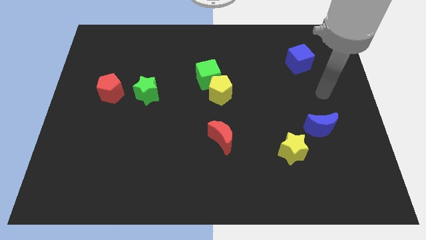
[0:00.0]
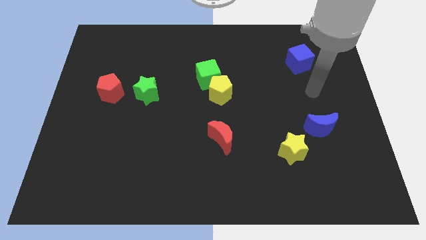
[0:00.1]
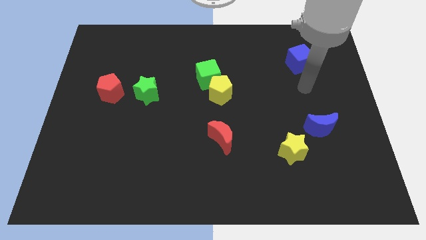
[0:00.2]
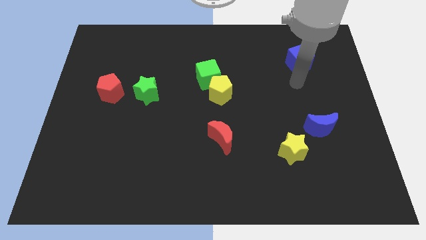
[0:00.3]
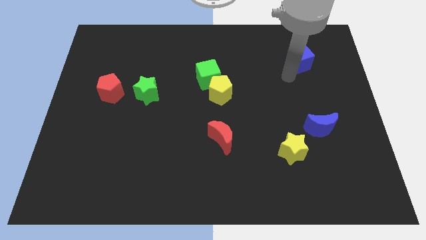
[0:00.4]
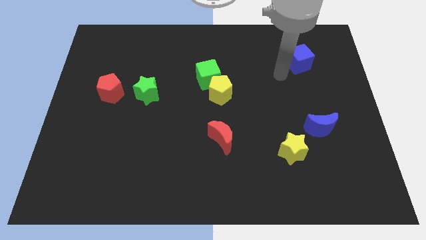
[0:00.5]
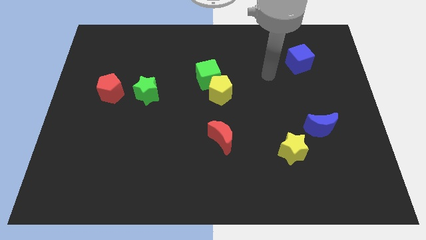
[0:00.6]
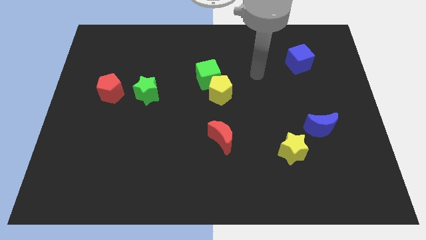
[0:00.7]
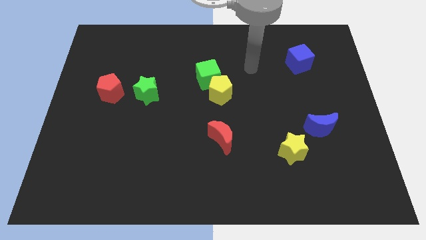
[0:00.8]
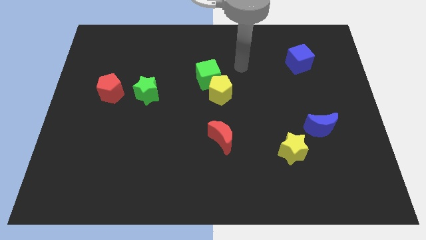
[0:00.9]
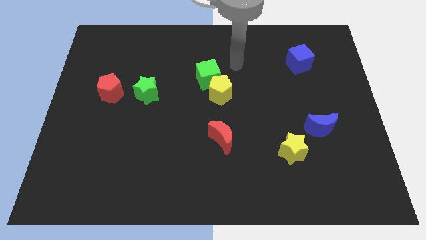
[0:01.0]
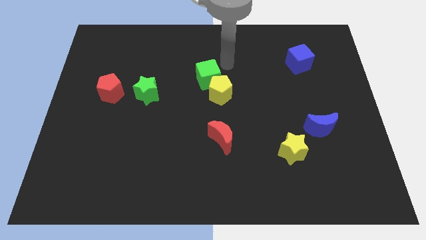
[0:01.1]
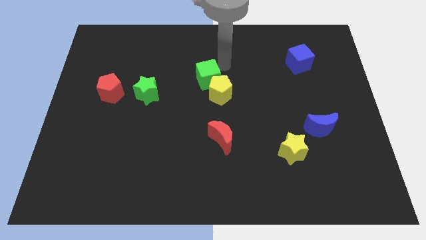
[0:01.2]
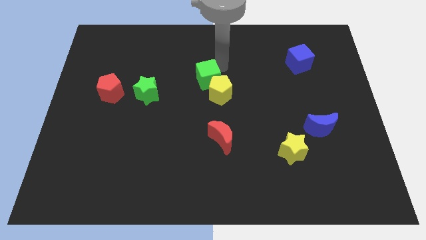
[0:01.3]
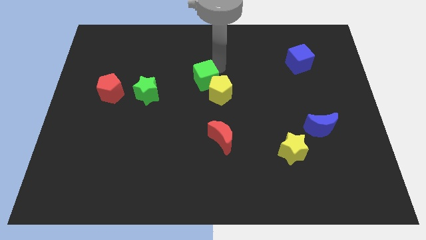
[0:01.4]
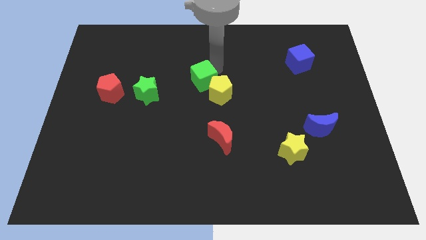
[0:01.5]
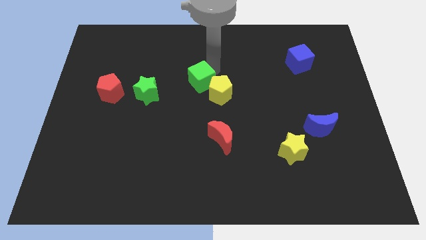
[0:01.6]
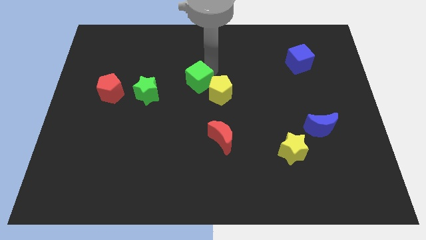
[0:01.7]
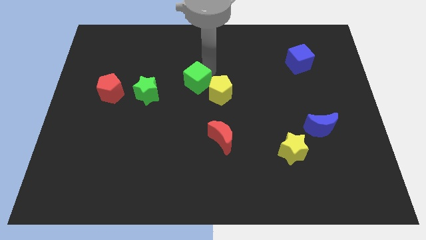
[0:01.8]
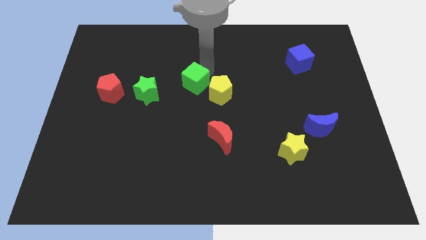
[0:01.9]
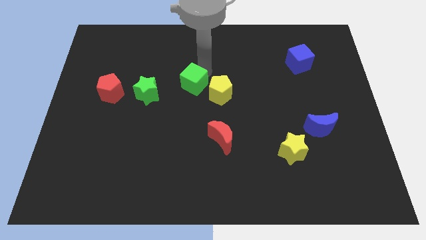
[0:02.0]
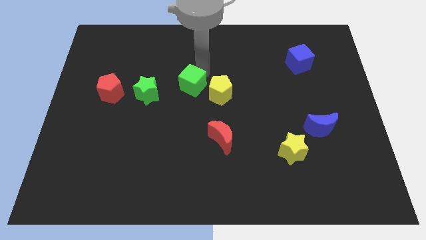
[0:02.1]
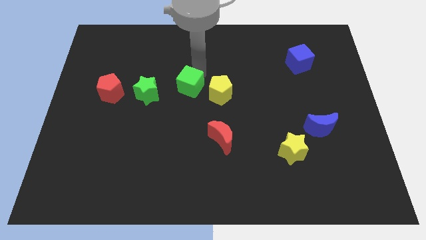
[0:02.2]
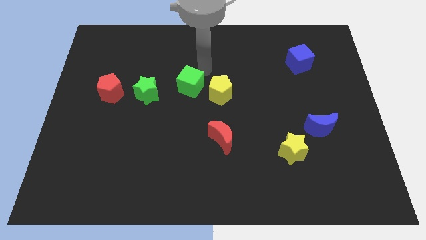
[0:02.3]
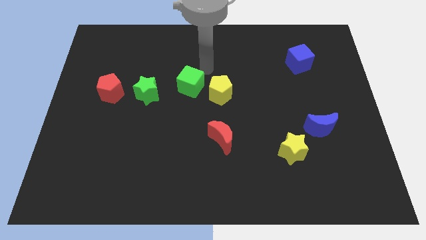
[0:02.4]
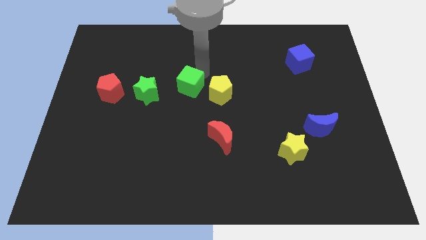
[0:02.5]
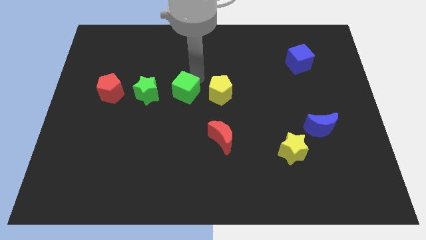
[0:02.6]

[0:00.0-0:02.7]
slightly push the green cube down and to the left diagonally

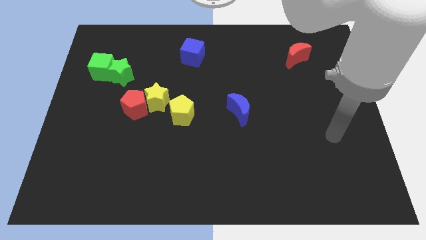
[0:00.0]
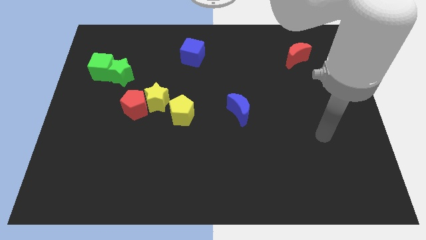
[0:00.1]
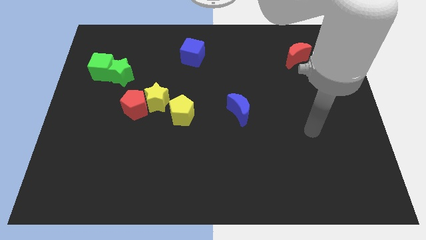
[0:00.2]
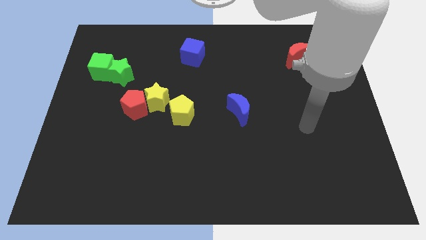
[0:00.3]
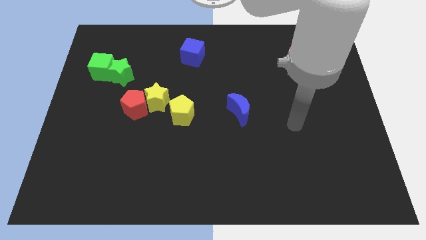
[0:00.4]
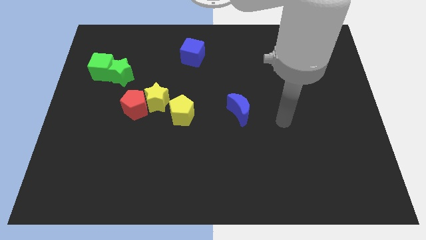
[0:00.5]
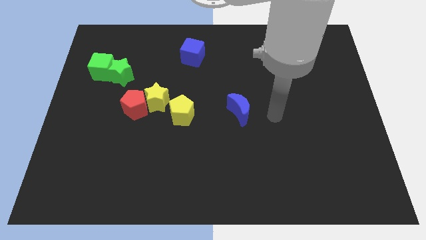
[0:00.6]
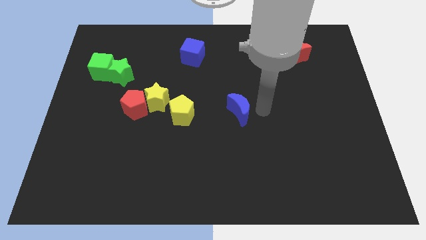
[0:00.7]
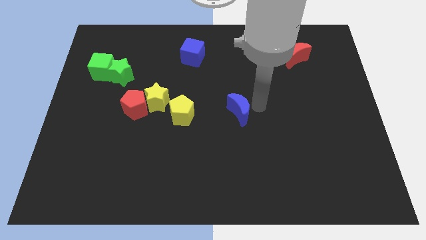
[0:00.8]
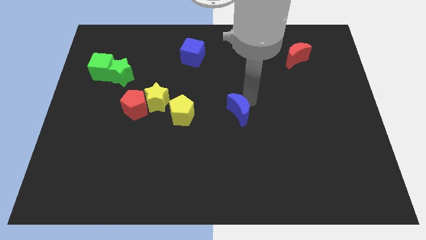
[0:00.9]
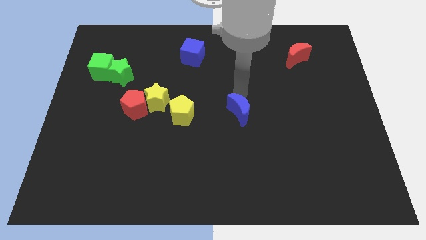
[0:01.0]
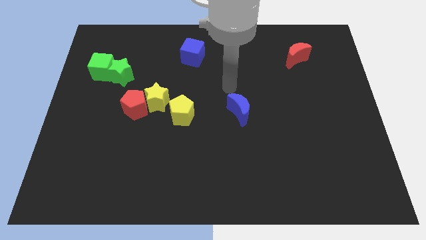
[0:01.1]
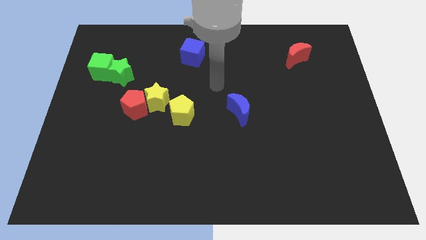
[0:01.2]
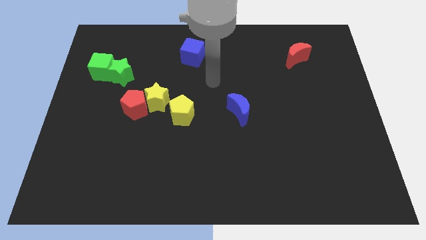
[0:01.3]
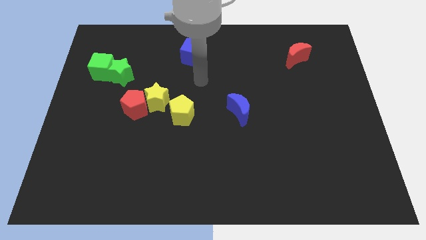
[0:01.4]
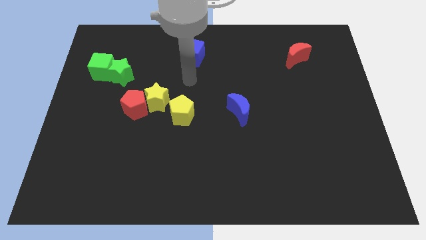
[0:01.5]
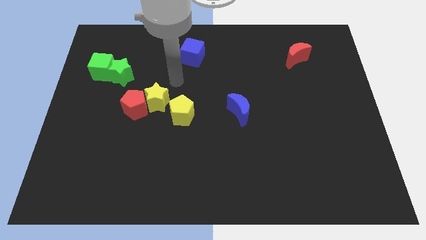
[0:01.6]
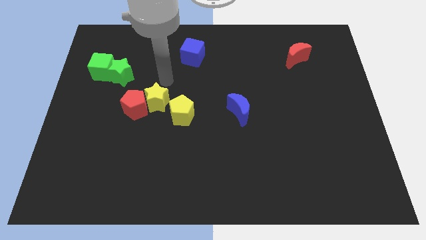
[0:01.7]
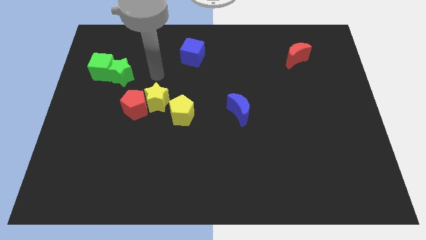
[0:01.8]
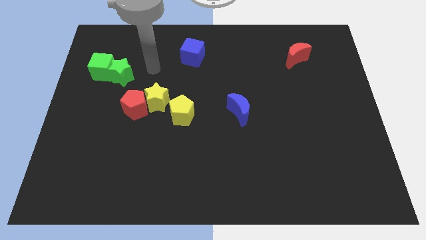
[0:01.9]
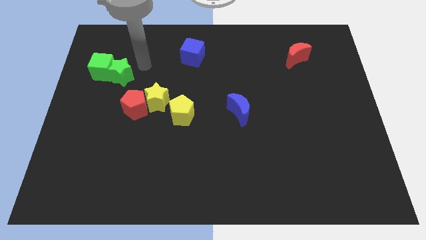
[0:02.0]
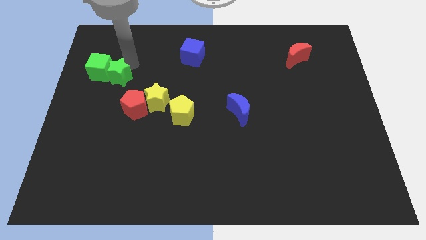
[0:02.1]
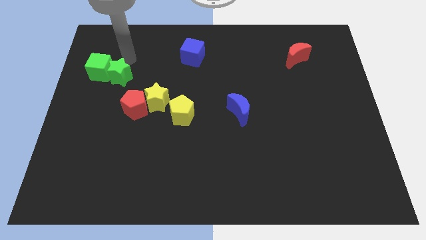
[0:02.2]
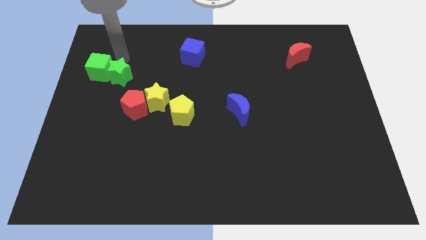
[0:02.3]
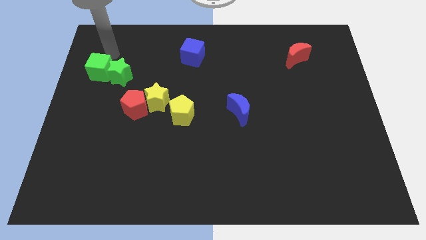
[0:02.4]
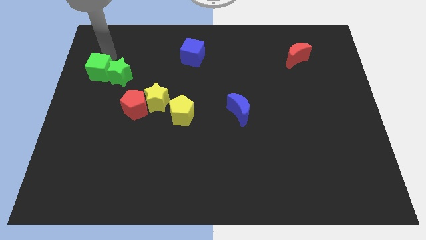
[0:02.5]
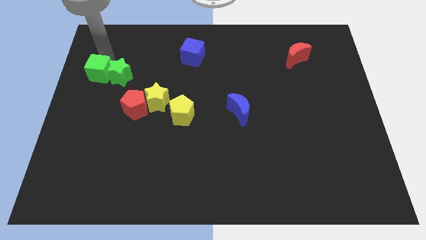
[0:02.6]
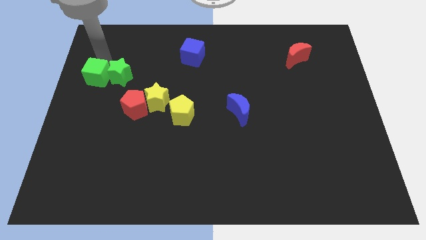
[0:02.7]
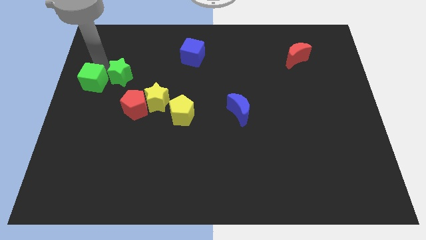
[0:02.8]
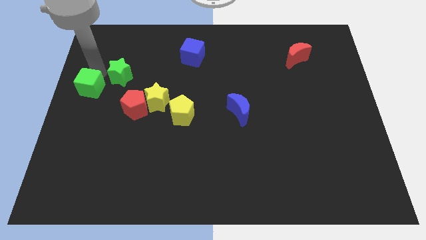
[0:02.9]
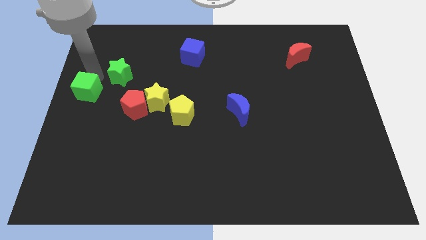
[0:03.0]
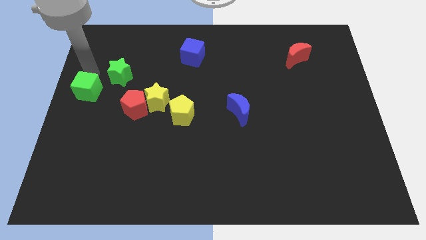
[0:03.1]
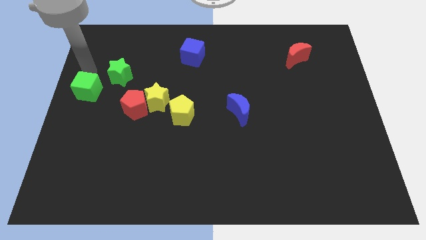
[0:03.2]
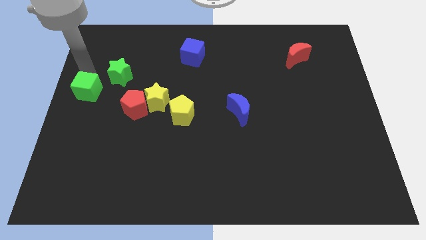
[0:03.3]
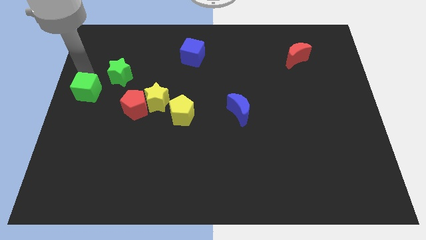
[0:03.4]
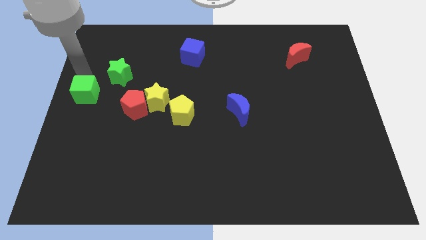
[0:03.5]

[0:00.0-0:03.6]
push the green cube a little bit down

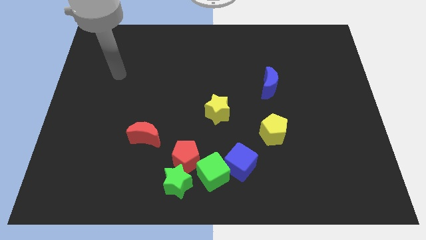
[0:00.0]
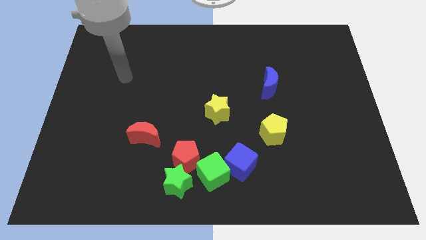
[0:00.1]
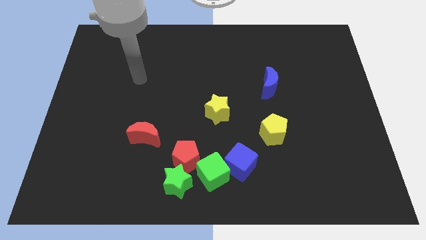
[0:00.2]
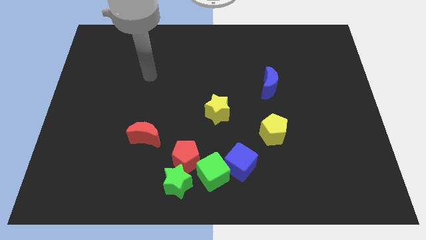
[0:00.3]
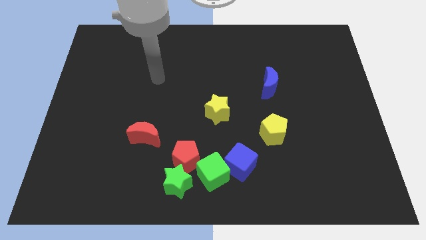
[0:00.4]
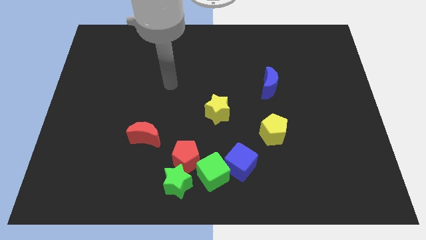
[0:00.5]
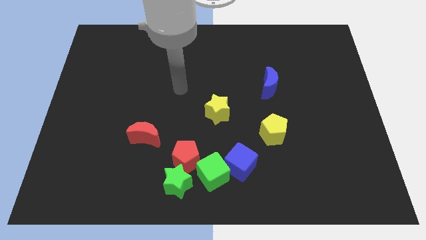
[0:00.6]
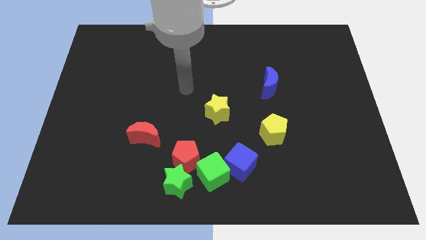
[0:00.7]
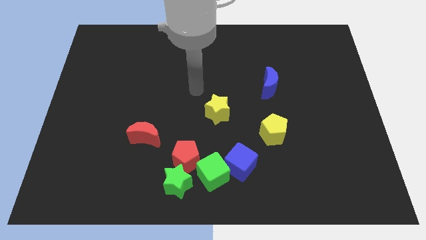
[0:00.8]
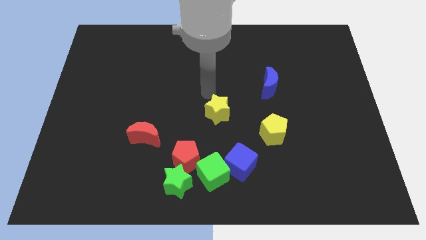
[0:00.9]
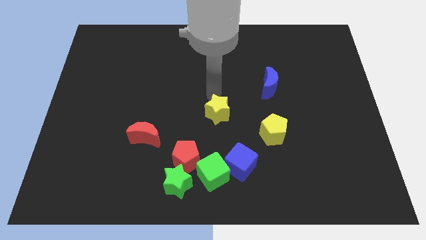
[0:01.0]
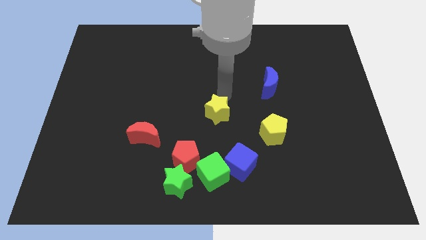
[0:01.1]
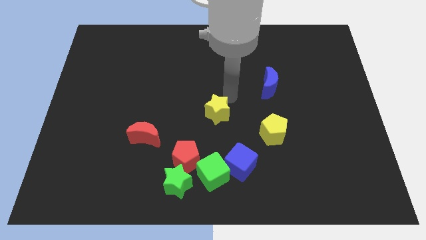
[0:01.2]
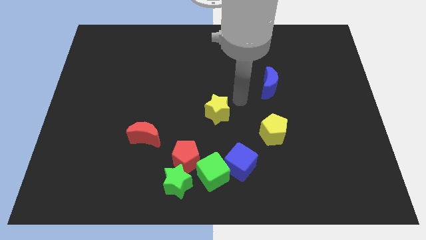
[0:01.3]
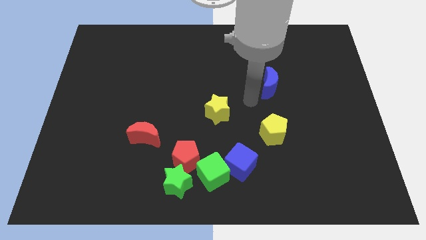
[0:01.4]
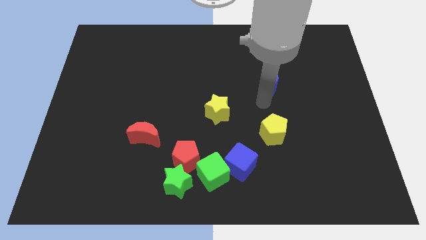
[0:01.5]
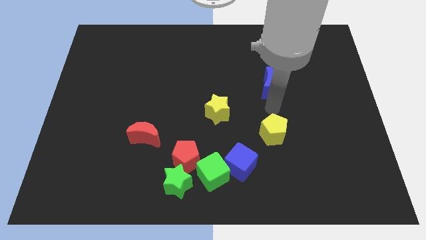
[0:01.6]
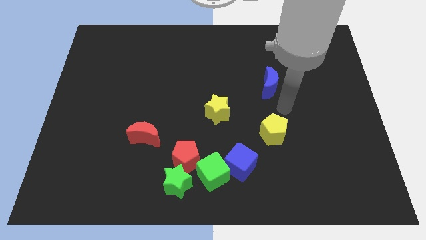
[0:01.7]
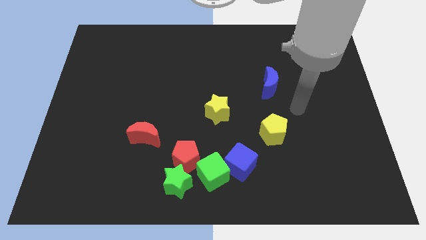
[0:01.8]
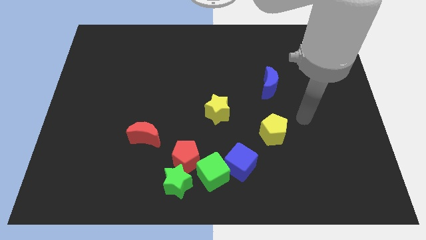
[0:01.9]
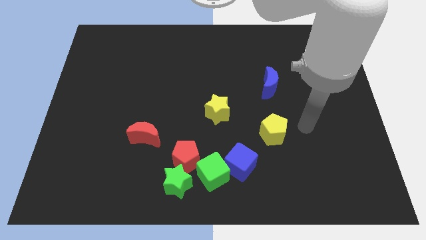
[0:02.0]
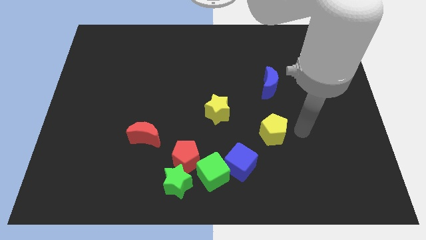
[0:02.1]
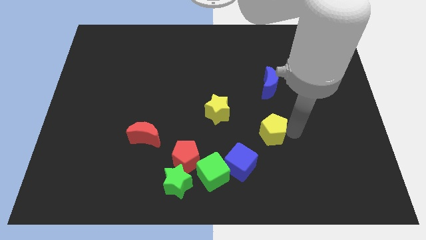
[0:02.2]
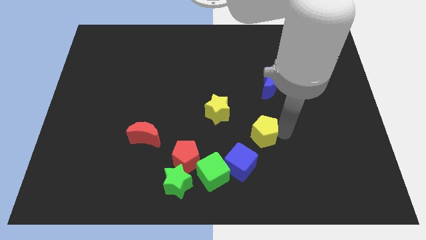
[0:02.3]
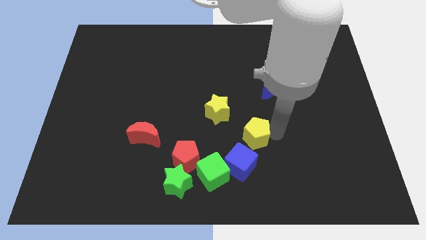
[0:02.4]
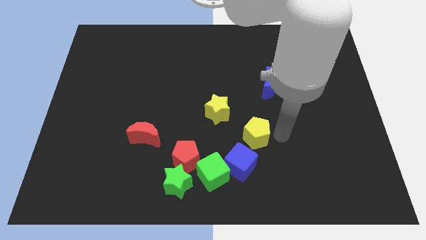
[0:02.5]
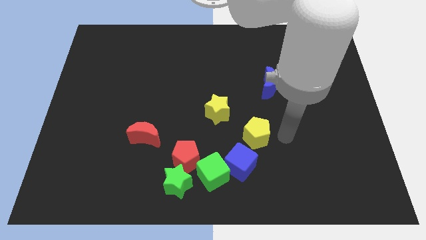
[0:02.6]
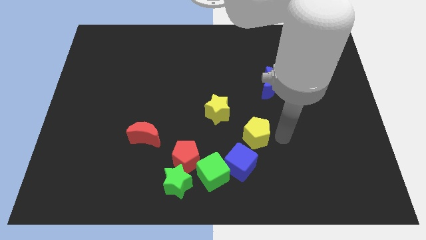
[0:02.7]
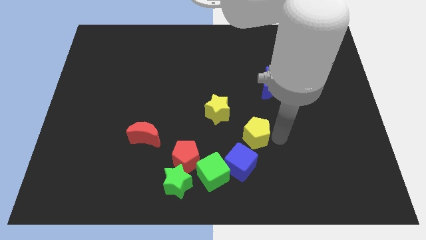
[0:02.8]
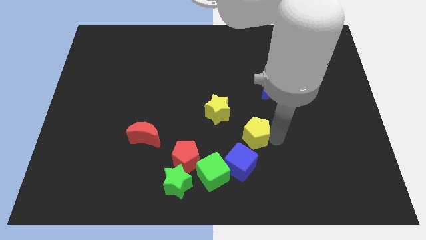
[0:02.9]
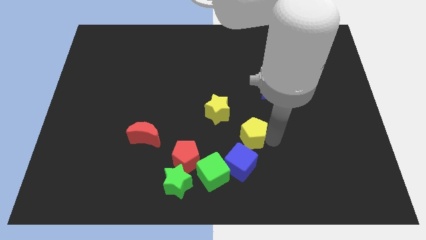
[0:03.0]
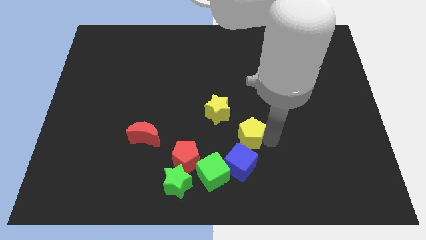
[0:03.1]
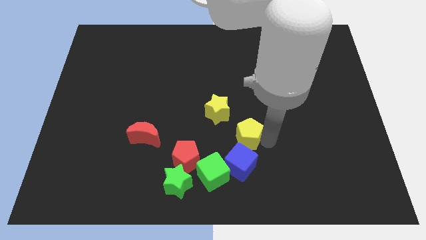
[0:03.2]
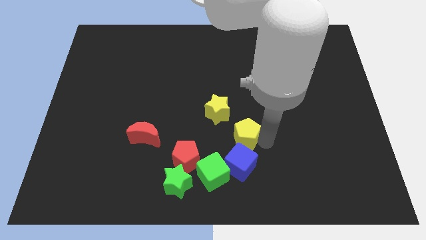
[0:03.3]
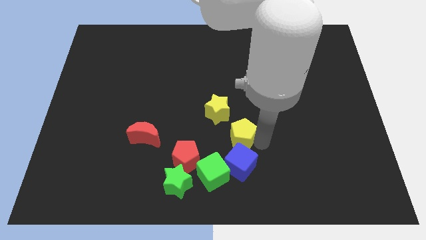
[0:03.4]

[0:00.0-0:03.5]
push the yellow pentagon to the left a little
